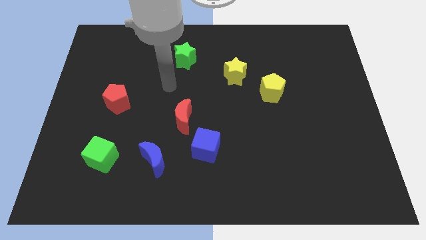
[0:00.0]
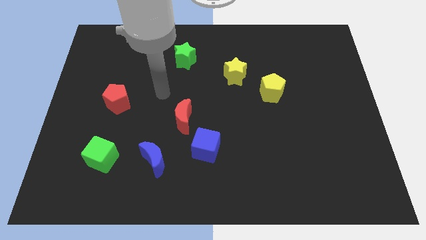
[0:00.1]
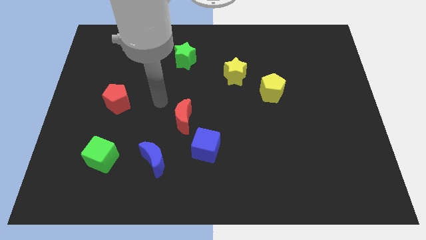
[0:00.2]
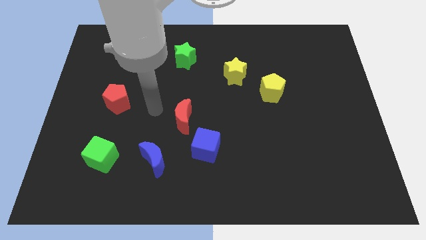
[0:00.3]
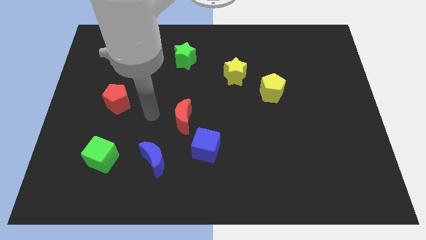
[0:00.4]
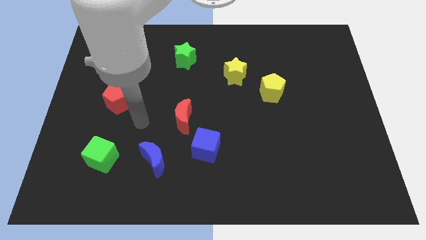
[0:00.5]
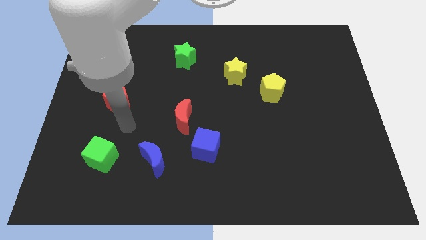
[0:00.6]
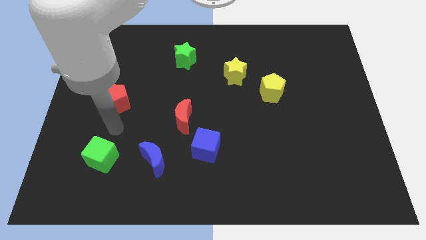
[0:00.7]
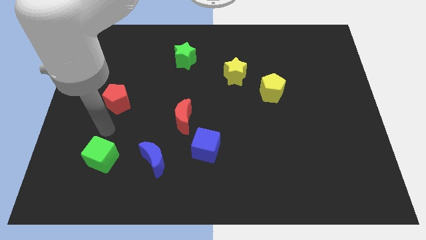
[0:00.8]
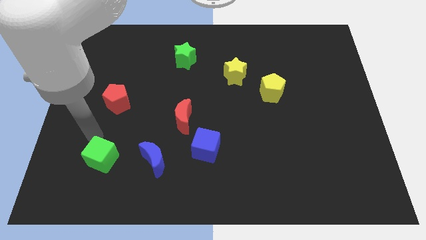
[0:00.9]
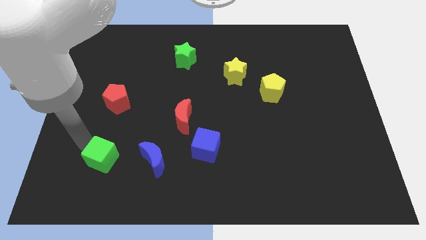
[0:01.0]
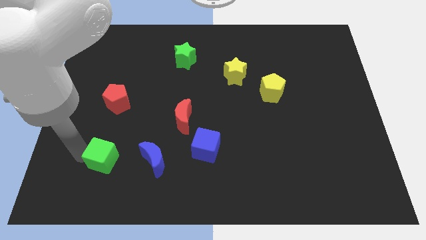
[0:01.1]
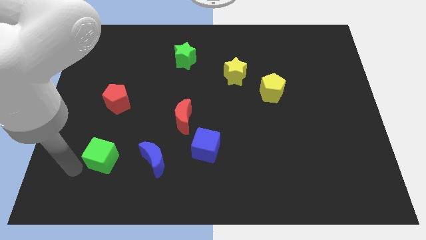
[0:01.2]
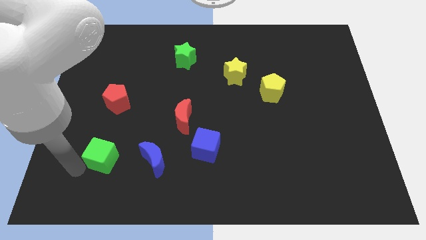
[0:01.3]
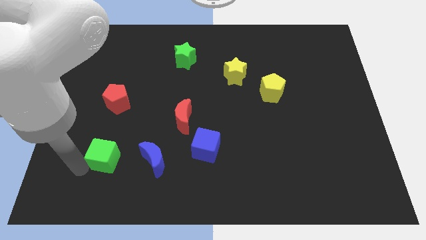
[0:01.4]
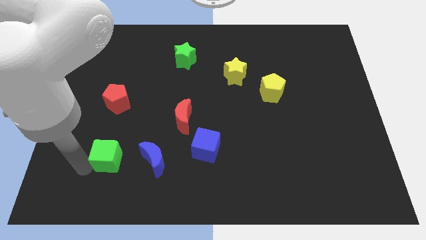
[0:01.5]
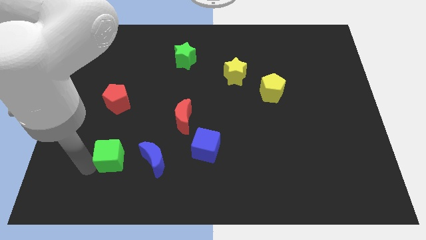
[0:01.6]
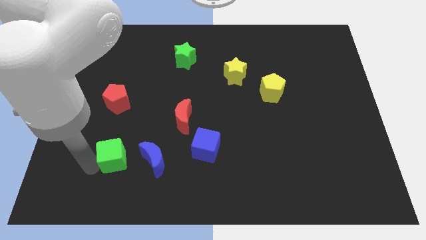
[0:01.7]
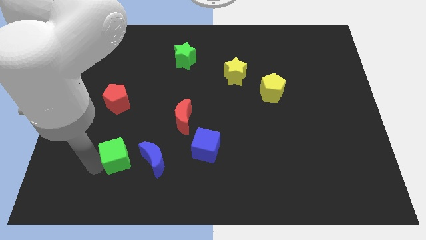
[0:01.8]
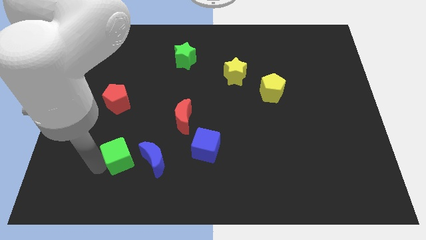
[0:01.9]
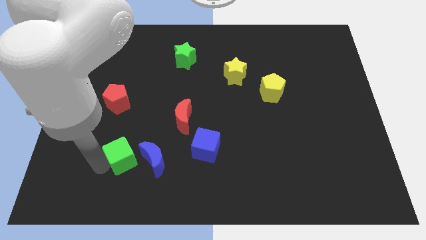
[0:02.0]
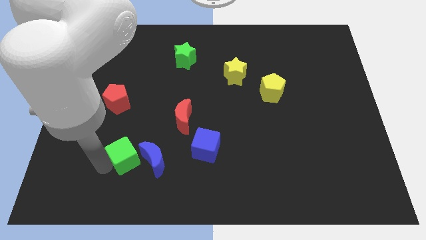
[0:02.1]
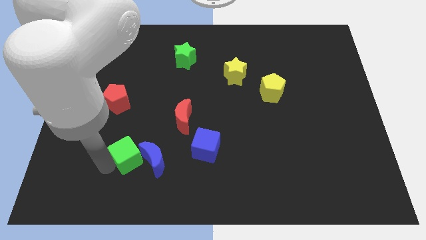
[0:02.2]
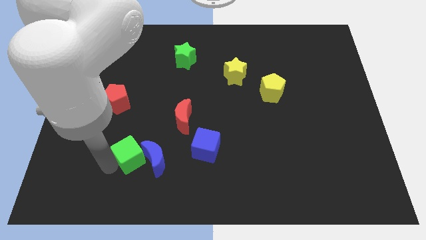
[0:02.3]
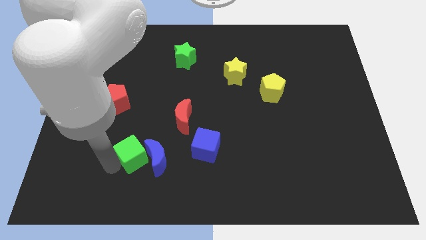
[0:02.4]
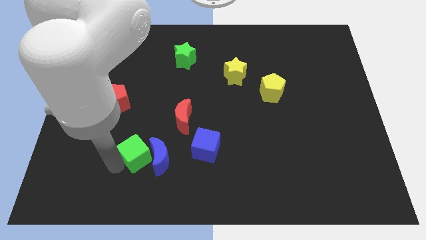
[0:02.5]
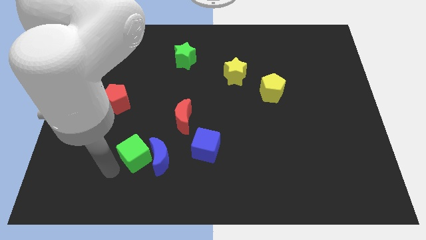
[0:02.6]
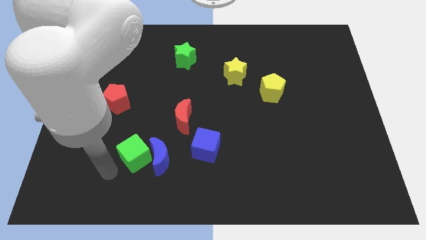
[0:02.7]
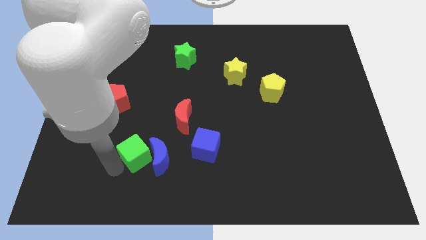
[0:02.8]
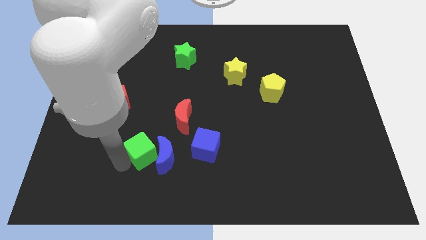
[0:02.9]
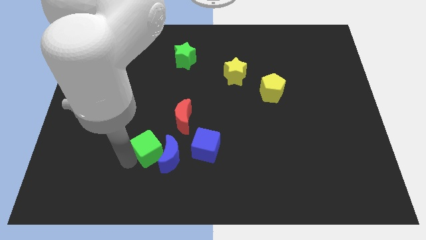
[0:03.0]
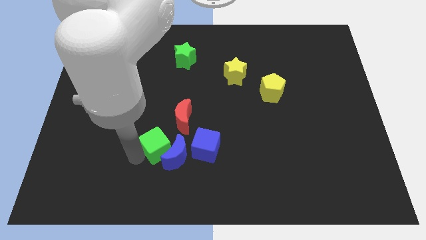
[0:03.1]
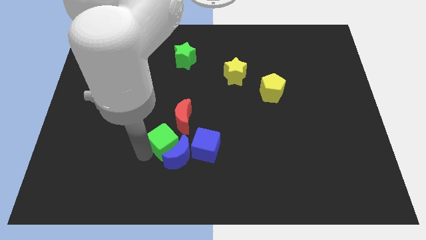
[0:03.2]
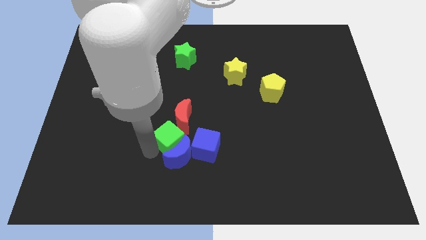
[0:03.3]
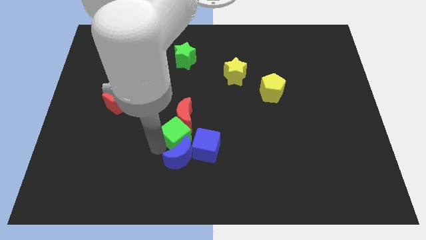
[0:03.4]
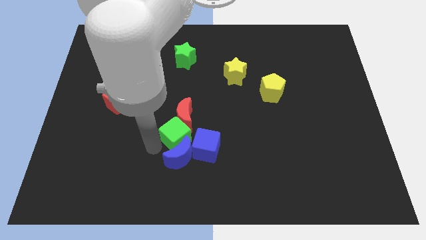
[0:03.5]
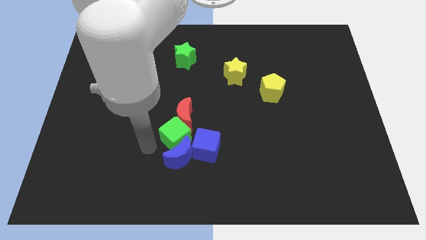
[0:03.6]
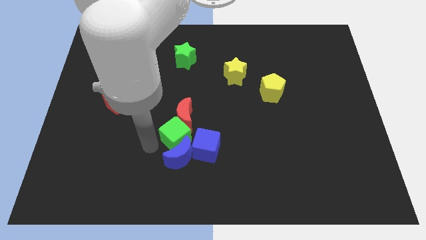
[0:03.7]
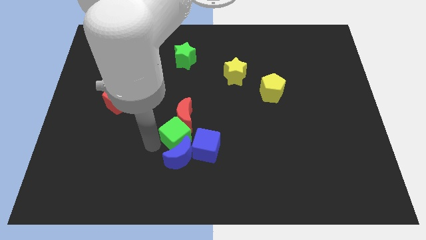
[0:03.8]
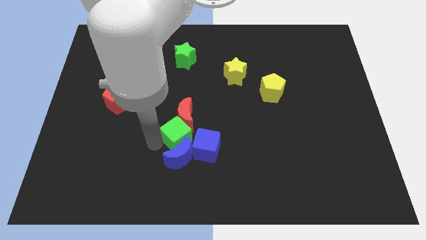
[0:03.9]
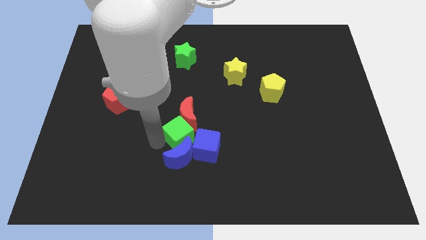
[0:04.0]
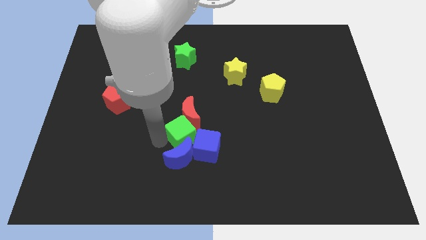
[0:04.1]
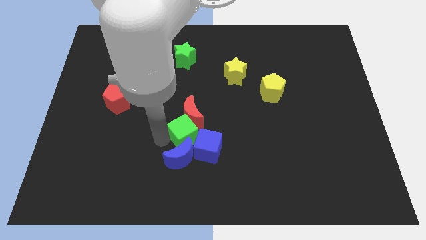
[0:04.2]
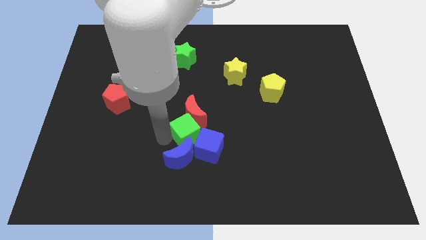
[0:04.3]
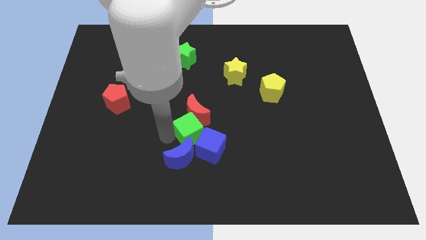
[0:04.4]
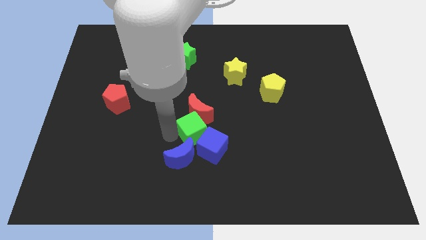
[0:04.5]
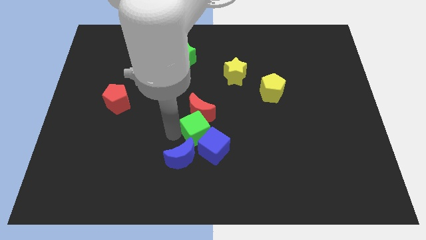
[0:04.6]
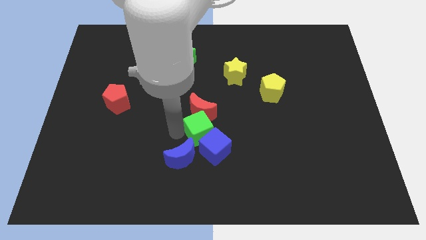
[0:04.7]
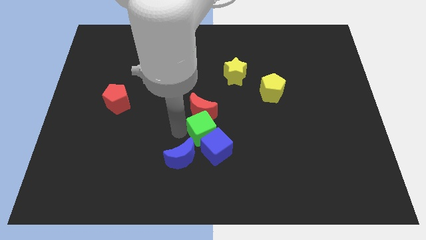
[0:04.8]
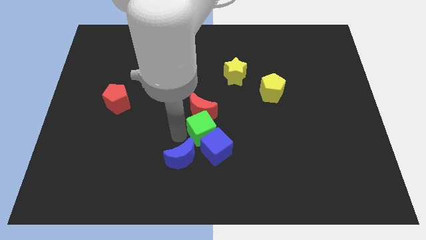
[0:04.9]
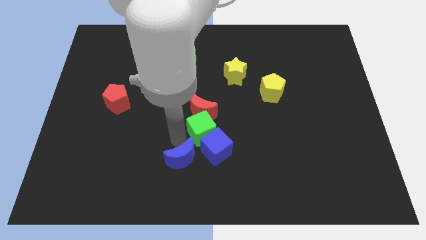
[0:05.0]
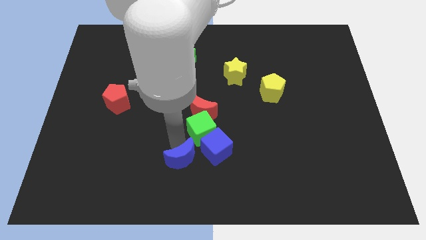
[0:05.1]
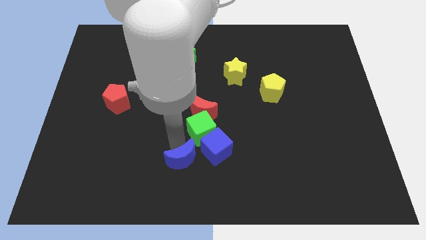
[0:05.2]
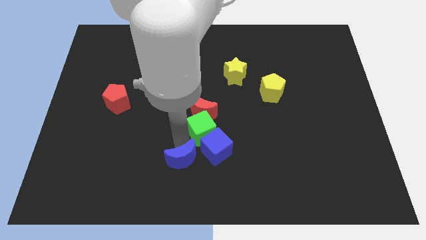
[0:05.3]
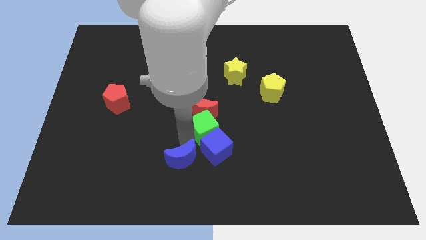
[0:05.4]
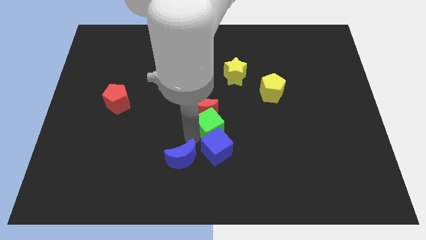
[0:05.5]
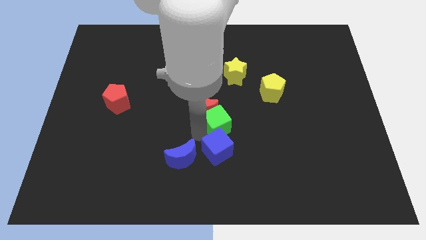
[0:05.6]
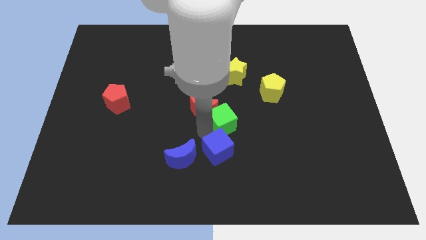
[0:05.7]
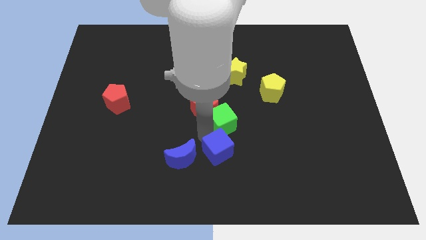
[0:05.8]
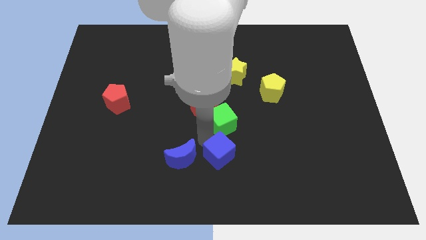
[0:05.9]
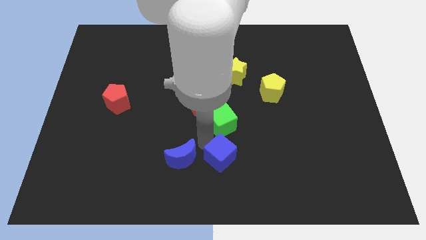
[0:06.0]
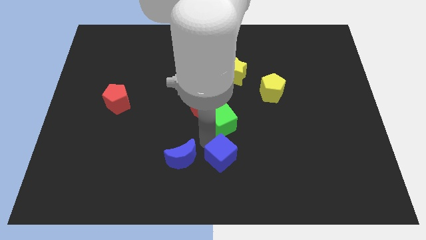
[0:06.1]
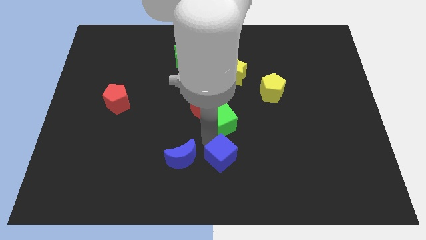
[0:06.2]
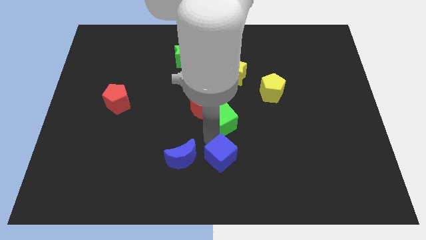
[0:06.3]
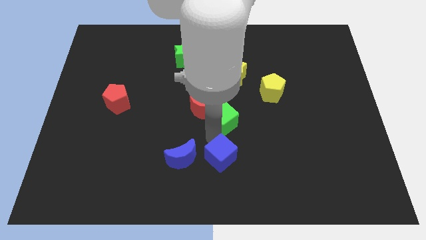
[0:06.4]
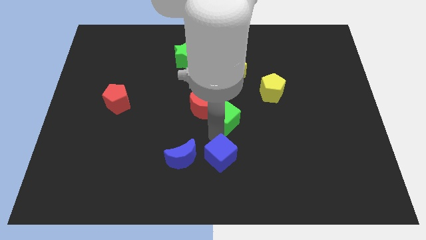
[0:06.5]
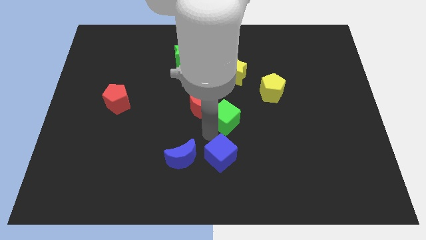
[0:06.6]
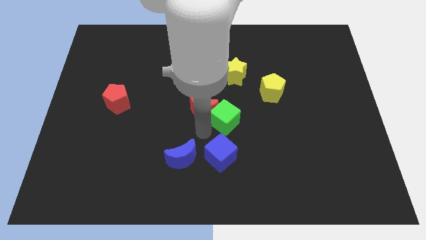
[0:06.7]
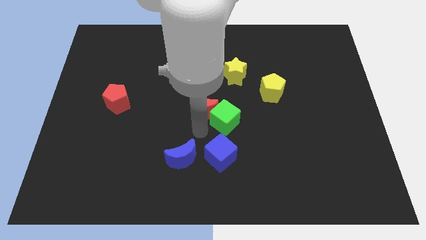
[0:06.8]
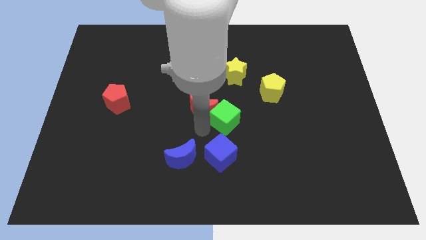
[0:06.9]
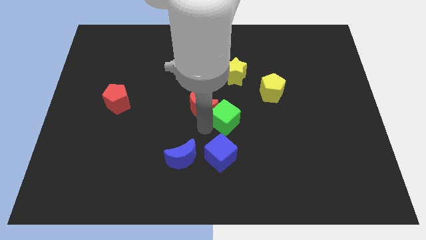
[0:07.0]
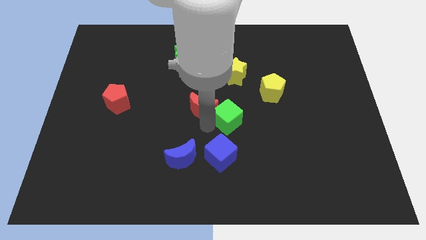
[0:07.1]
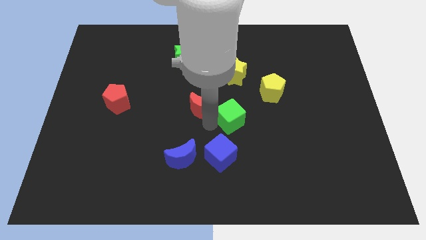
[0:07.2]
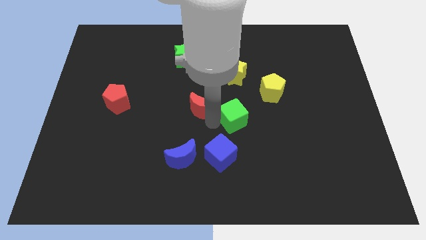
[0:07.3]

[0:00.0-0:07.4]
push the green cube diagonally down and to the left of the yellow pentagon
